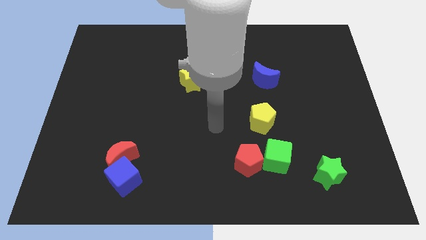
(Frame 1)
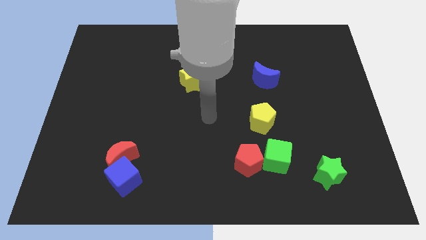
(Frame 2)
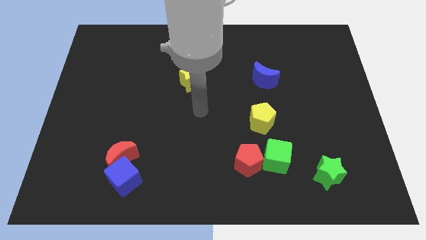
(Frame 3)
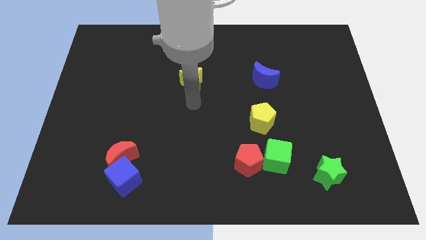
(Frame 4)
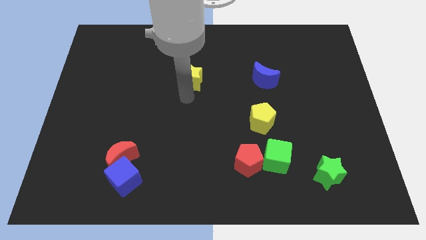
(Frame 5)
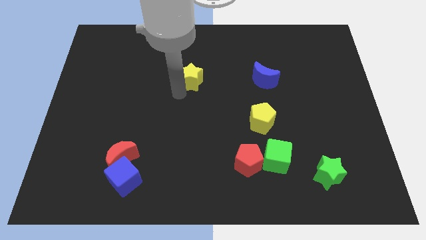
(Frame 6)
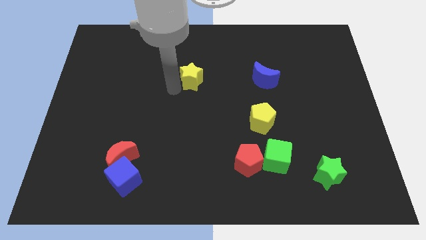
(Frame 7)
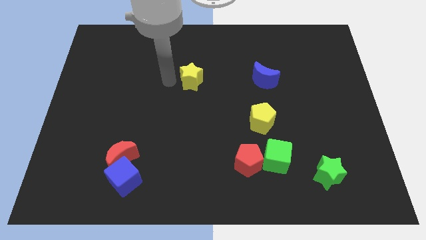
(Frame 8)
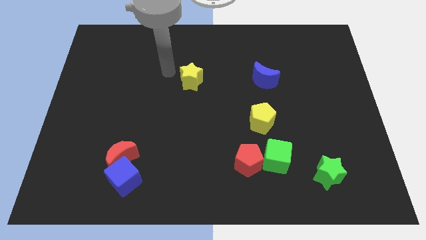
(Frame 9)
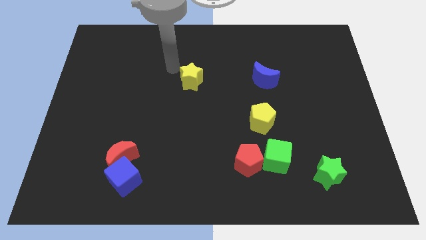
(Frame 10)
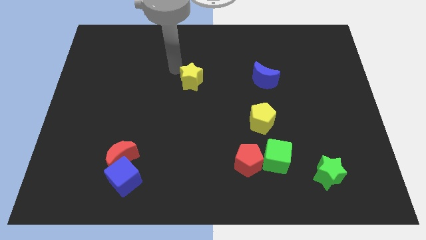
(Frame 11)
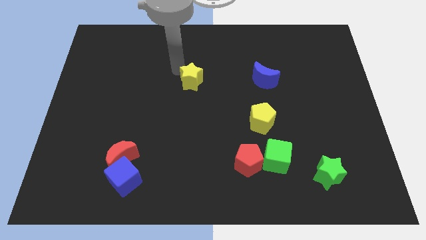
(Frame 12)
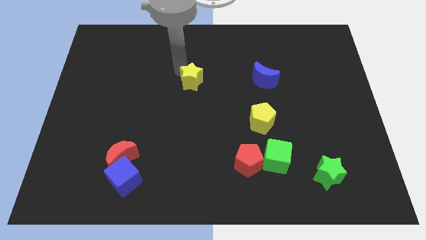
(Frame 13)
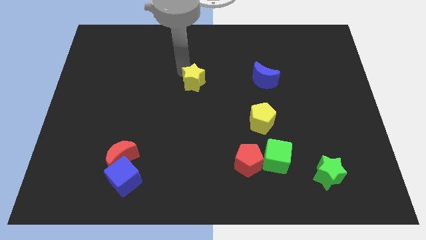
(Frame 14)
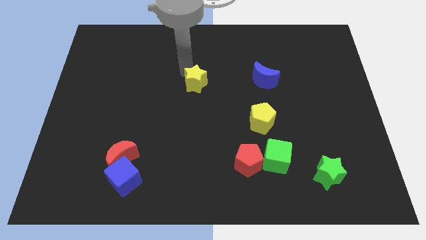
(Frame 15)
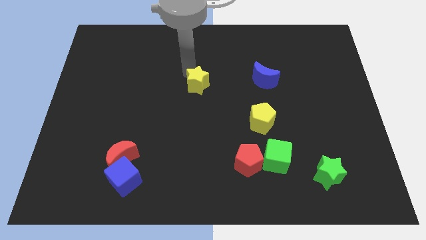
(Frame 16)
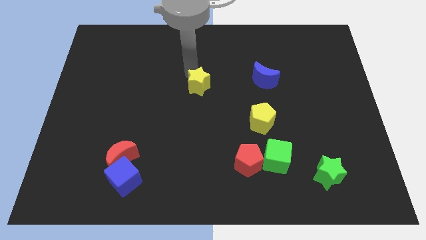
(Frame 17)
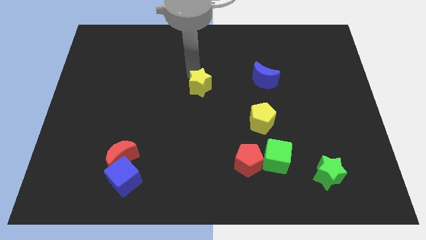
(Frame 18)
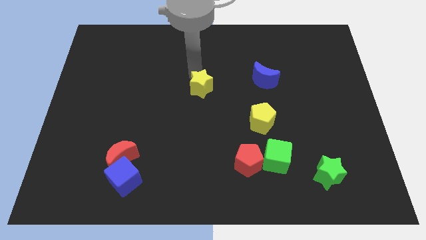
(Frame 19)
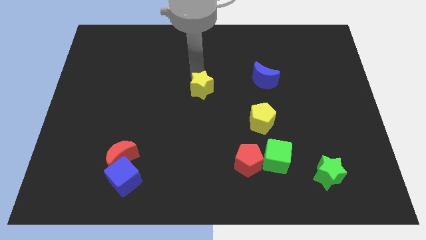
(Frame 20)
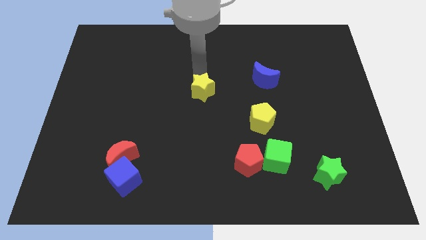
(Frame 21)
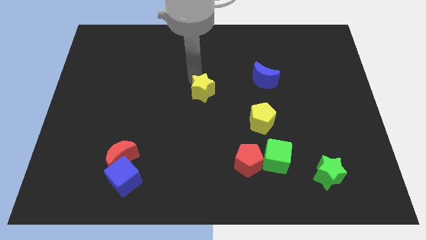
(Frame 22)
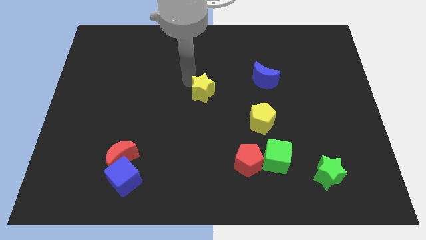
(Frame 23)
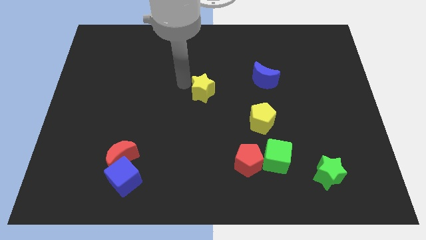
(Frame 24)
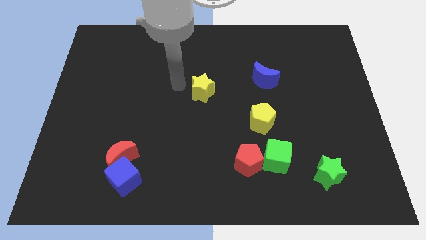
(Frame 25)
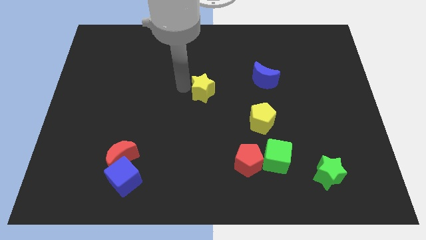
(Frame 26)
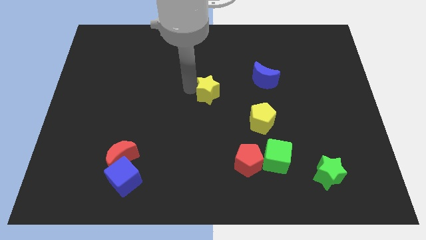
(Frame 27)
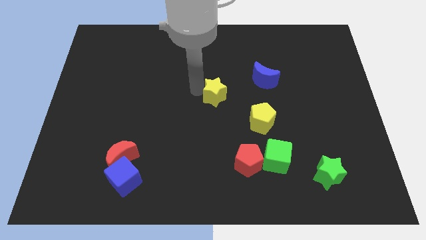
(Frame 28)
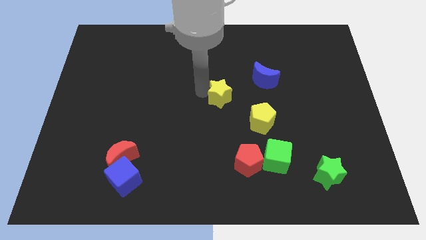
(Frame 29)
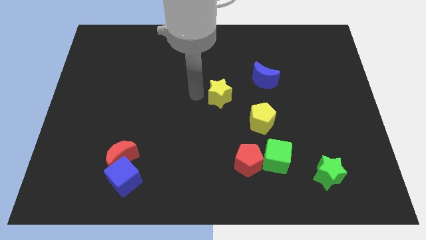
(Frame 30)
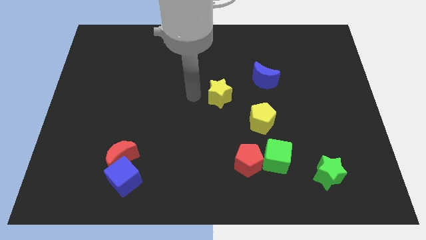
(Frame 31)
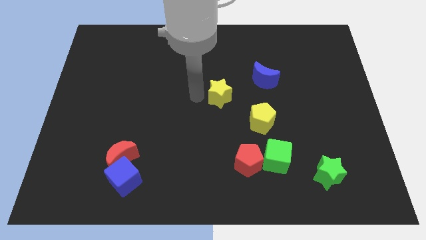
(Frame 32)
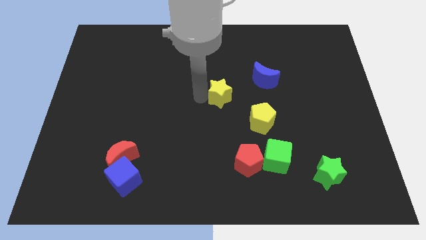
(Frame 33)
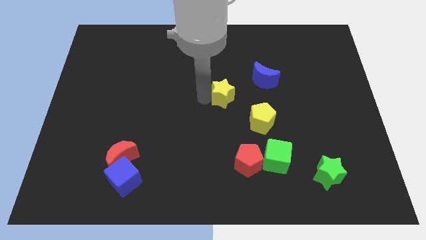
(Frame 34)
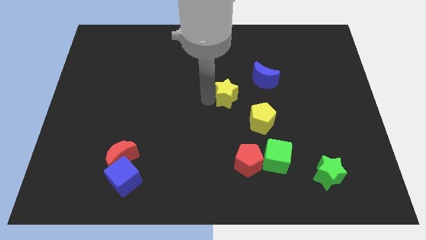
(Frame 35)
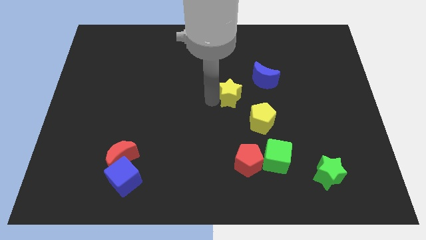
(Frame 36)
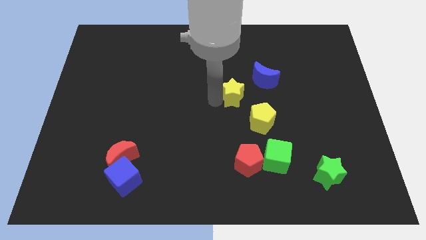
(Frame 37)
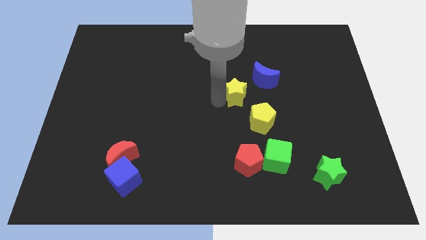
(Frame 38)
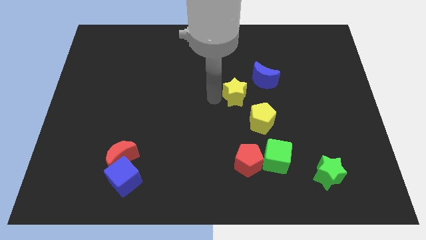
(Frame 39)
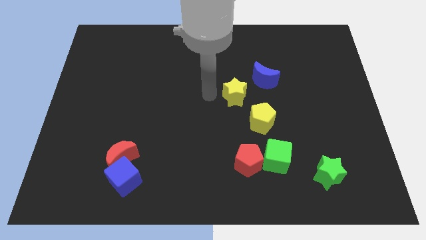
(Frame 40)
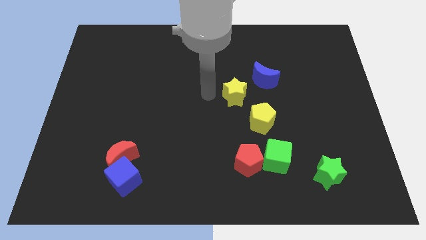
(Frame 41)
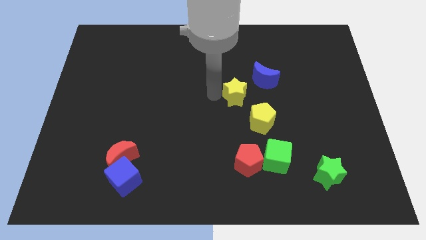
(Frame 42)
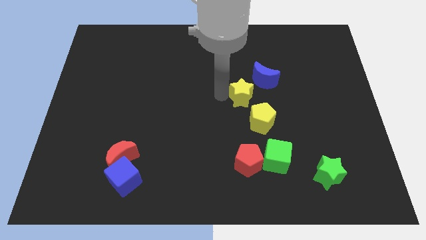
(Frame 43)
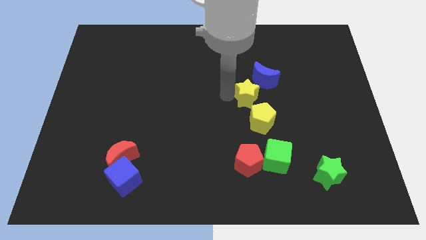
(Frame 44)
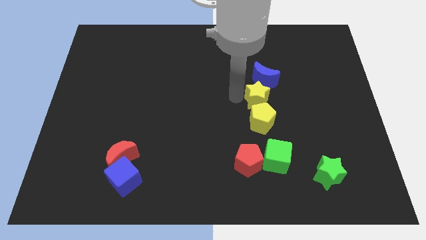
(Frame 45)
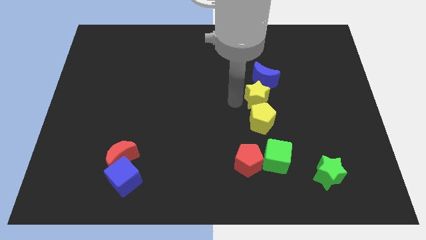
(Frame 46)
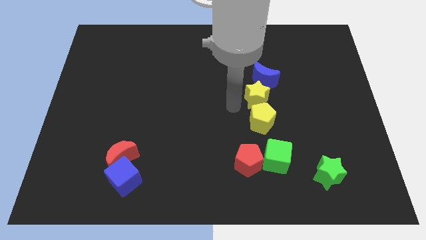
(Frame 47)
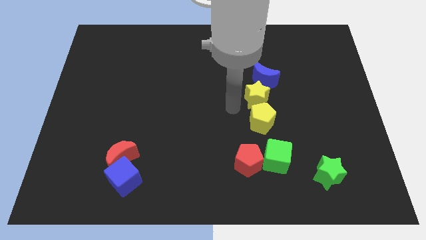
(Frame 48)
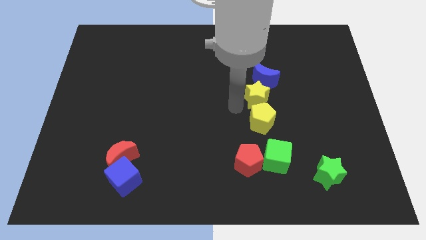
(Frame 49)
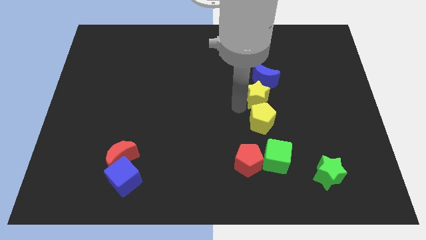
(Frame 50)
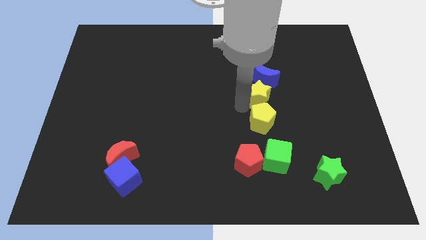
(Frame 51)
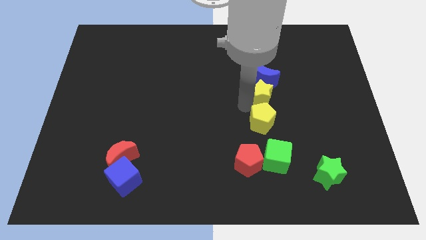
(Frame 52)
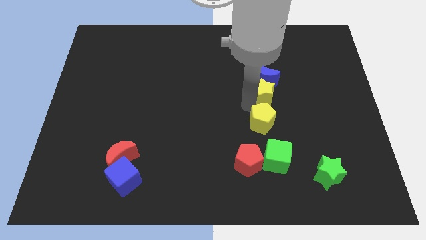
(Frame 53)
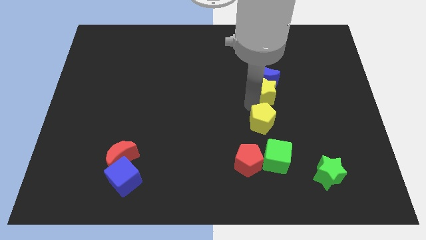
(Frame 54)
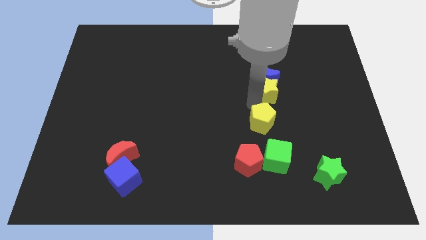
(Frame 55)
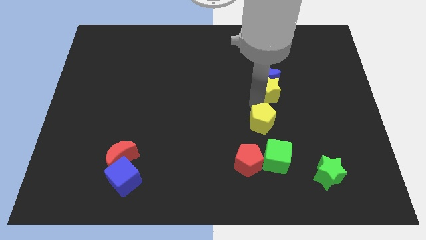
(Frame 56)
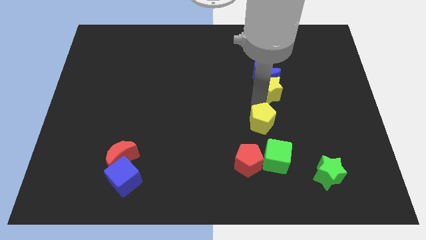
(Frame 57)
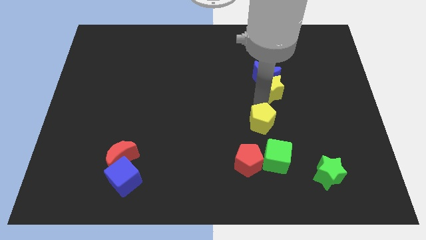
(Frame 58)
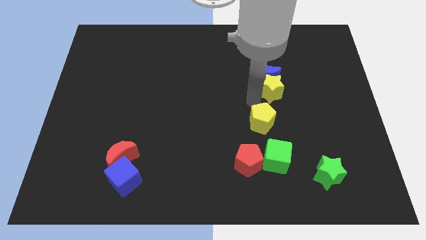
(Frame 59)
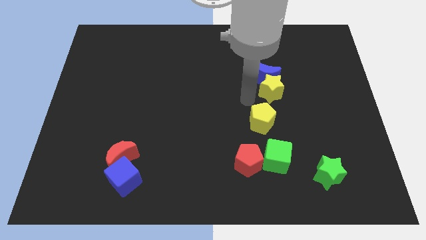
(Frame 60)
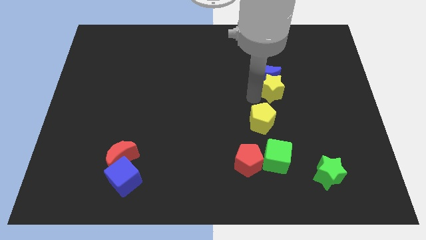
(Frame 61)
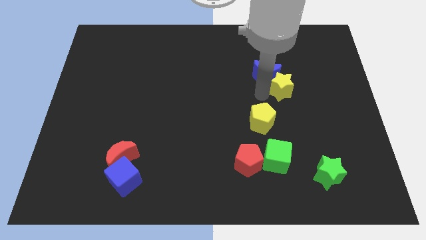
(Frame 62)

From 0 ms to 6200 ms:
push the yellow star right of the blue moon

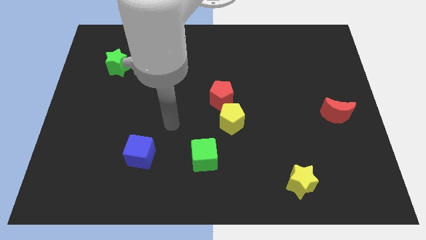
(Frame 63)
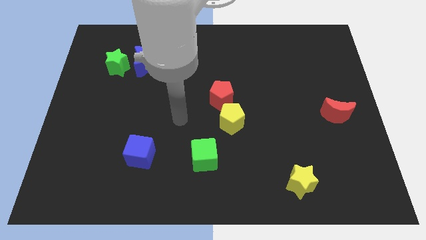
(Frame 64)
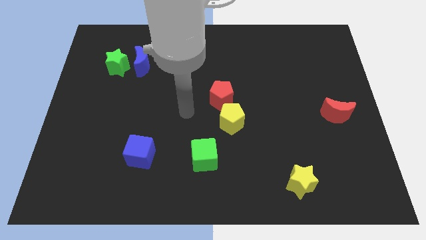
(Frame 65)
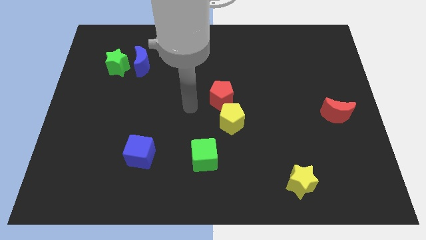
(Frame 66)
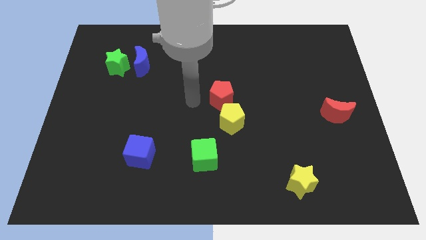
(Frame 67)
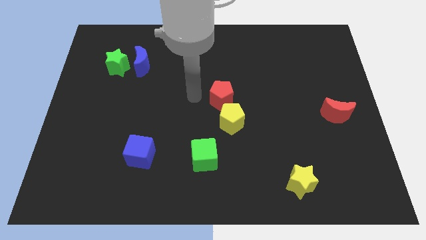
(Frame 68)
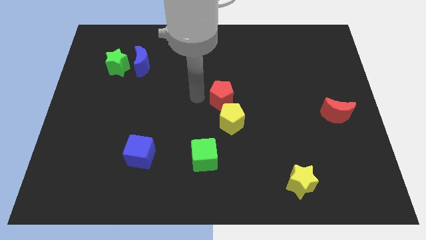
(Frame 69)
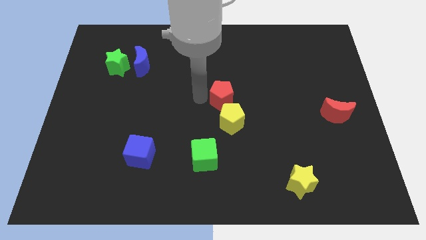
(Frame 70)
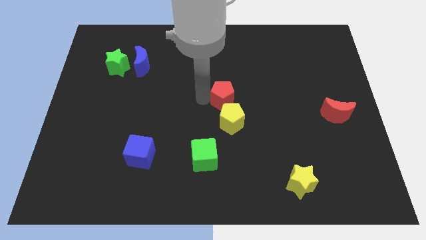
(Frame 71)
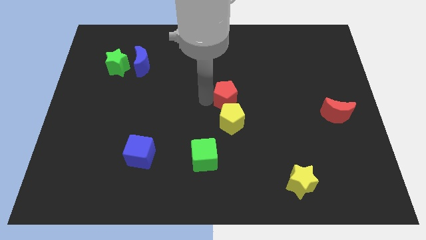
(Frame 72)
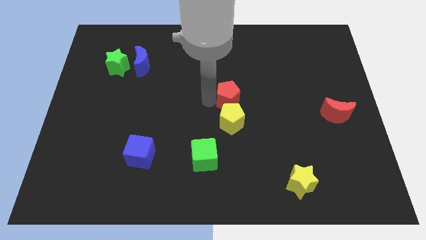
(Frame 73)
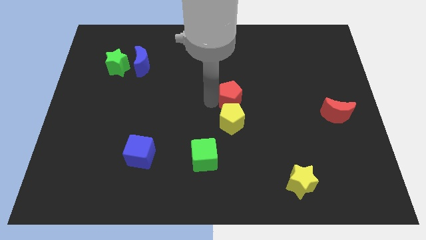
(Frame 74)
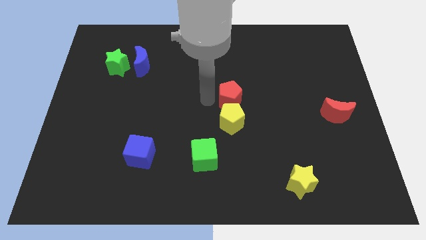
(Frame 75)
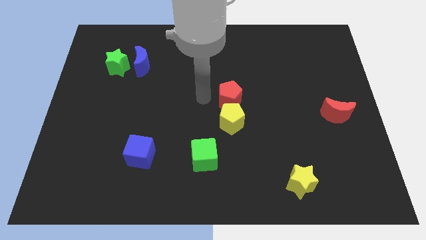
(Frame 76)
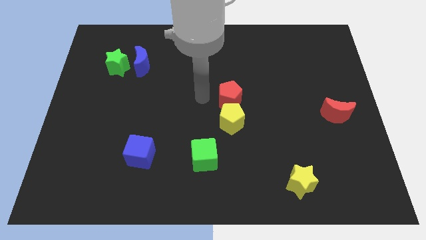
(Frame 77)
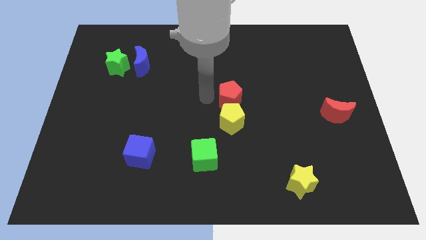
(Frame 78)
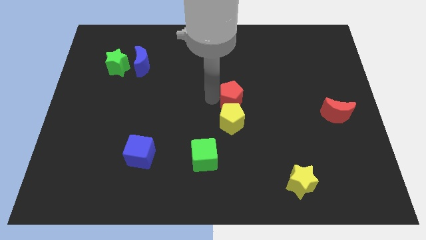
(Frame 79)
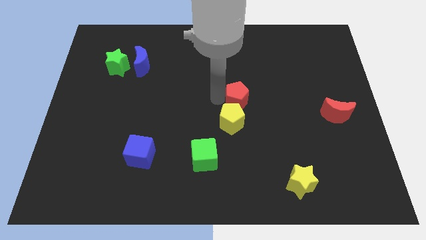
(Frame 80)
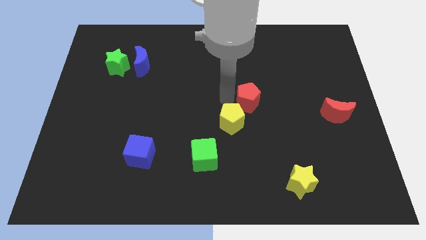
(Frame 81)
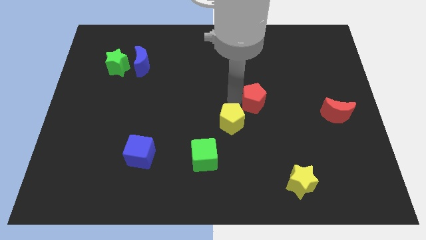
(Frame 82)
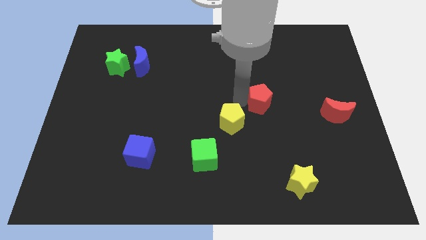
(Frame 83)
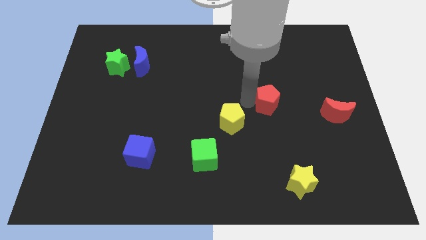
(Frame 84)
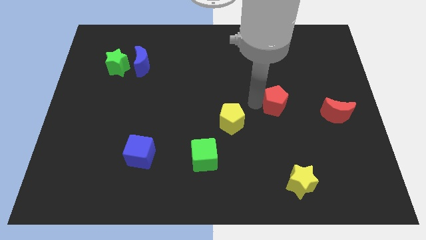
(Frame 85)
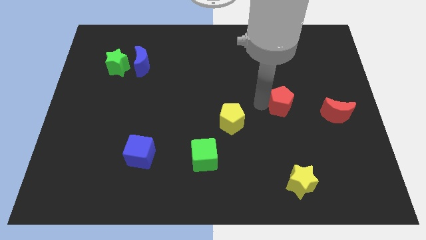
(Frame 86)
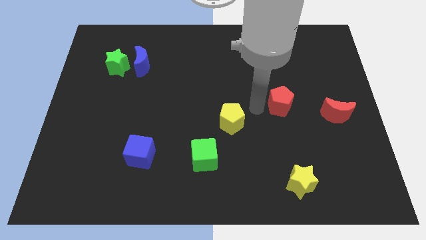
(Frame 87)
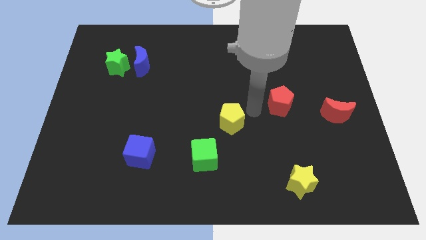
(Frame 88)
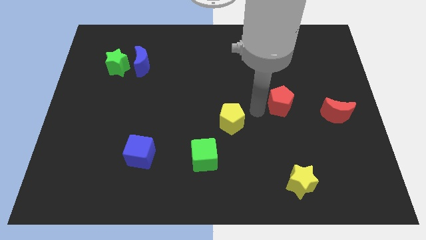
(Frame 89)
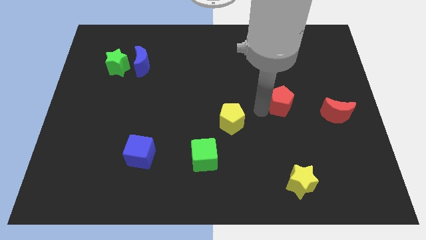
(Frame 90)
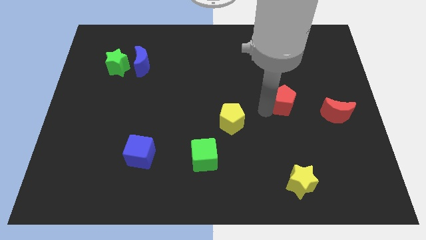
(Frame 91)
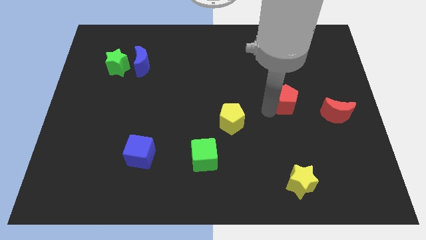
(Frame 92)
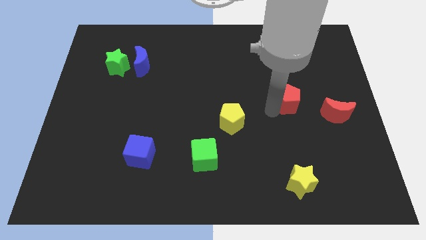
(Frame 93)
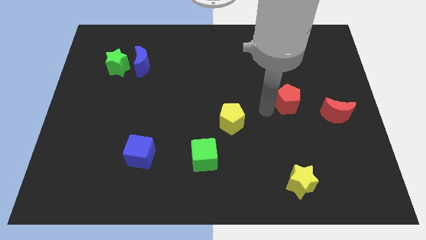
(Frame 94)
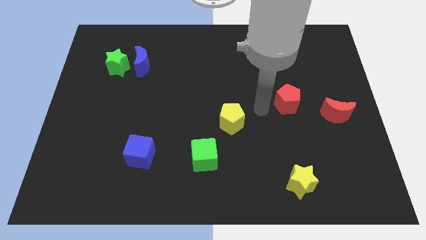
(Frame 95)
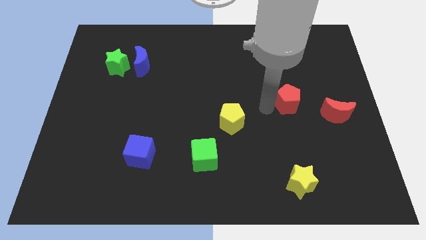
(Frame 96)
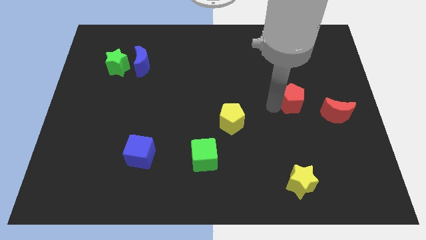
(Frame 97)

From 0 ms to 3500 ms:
put the red pentagon to the top left of the red moon
